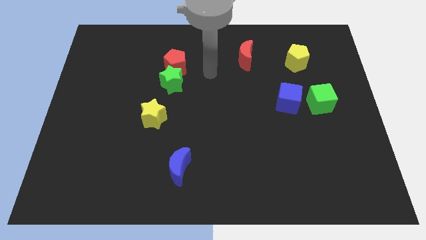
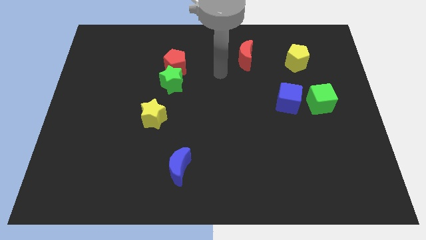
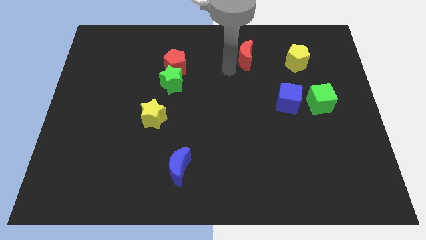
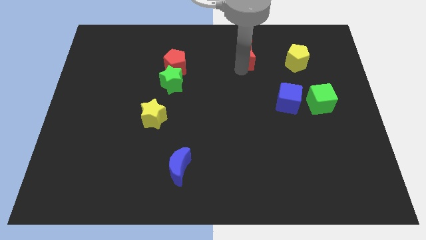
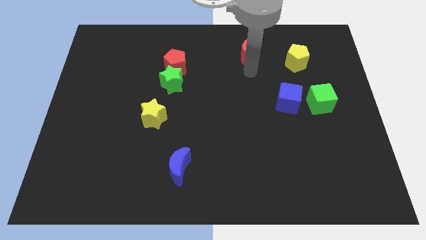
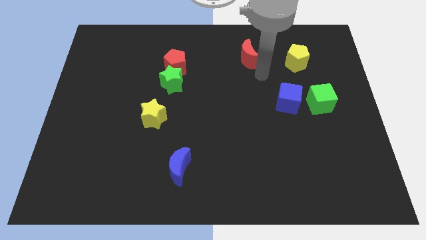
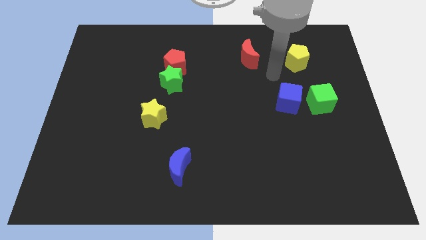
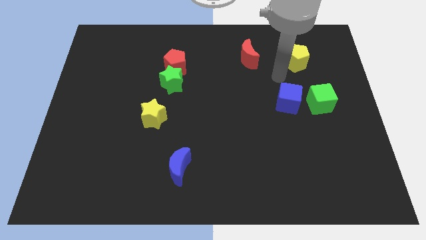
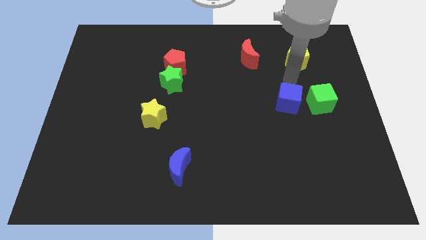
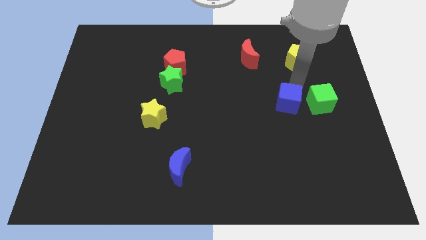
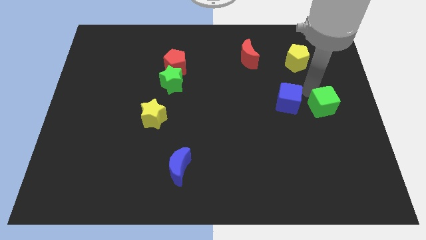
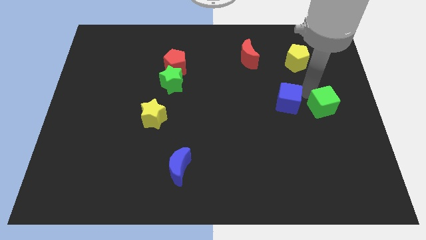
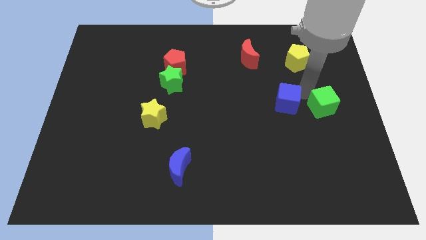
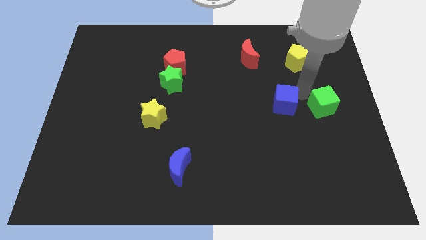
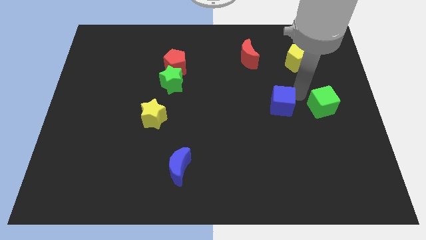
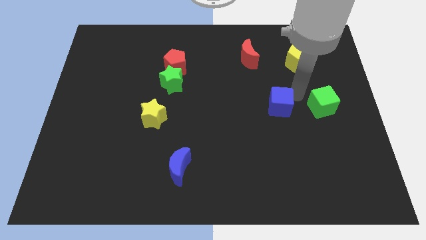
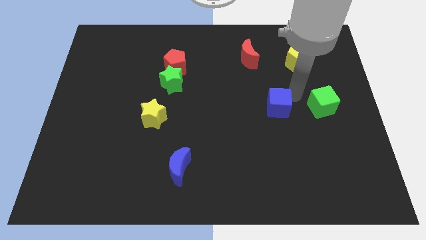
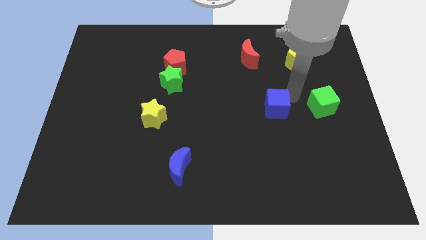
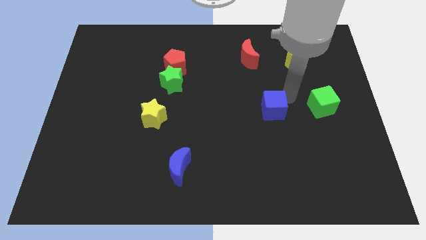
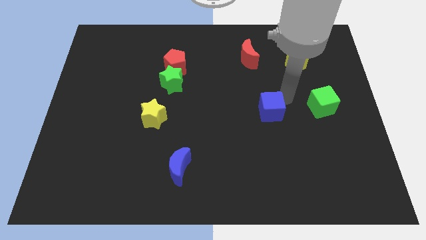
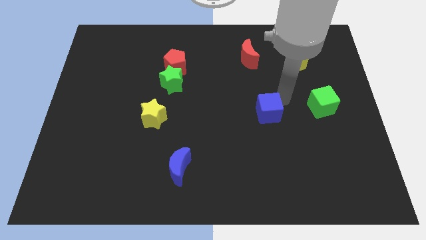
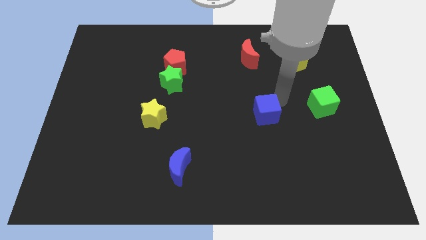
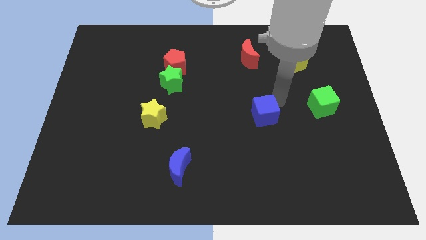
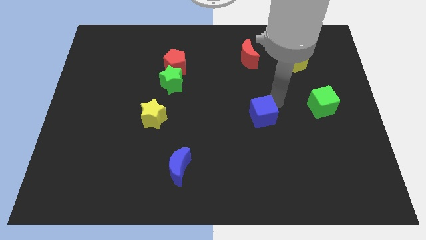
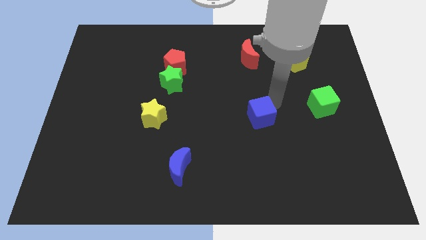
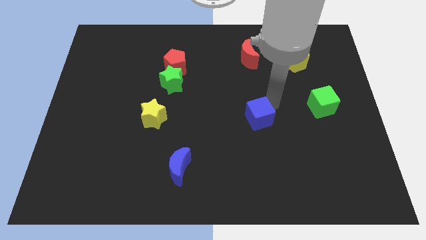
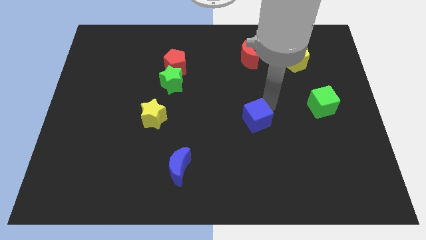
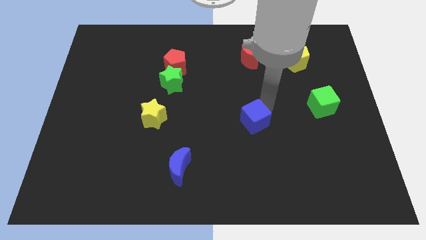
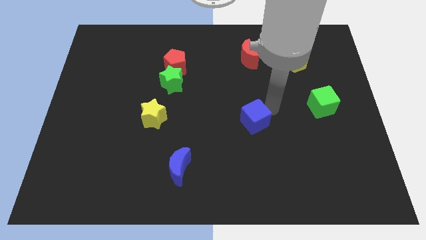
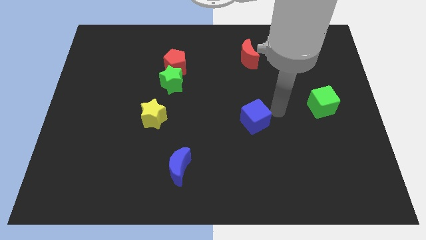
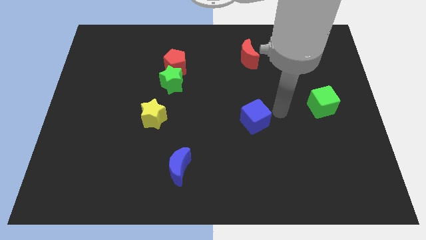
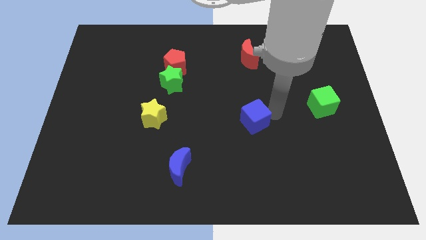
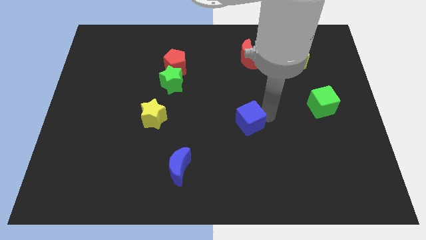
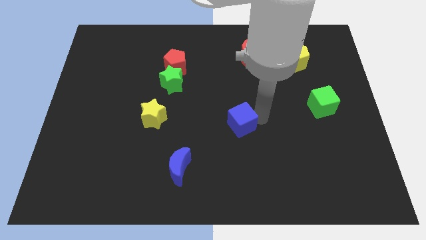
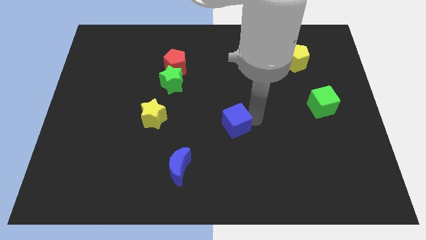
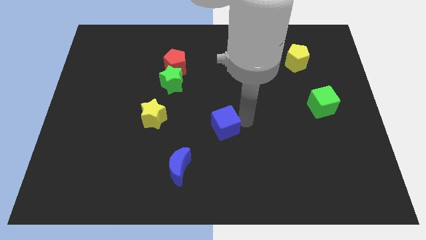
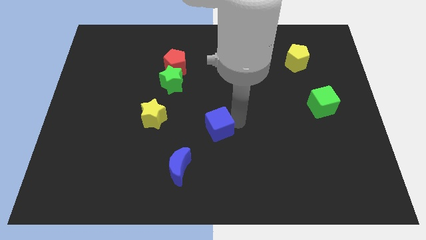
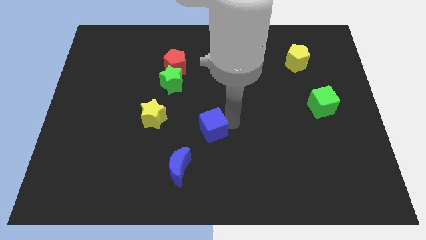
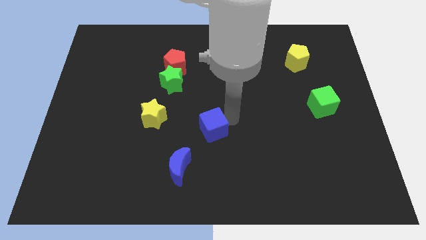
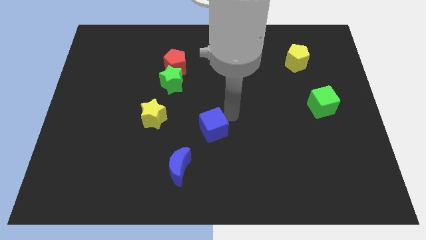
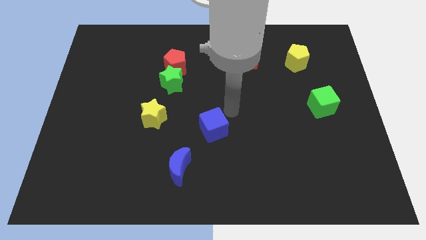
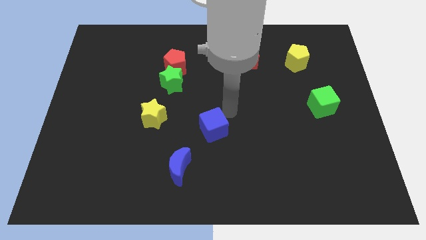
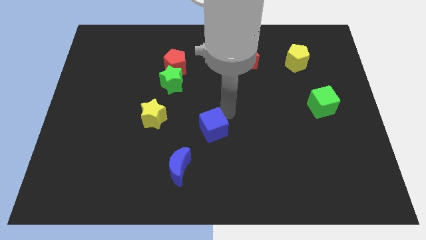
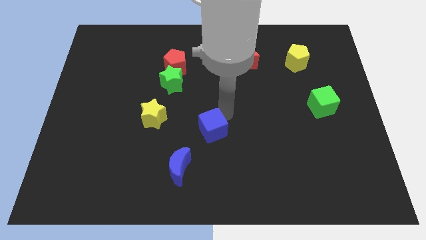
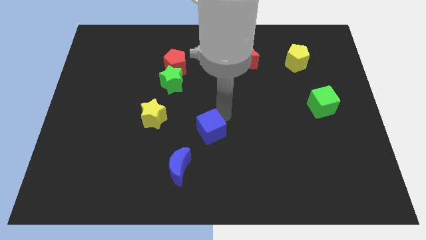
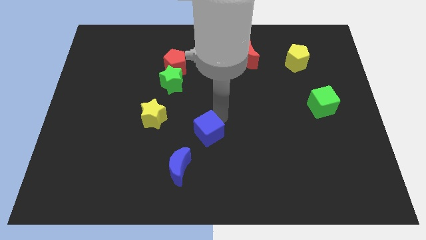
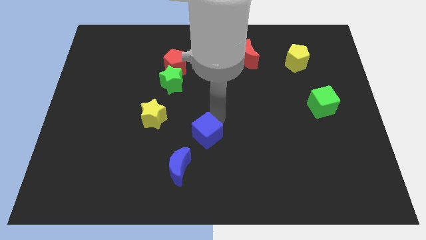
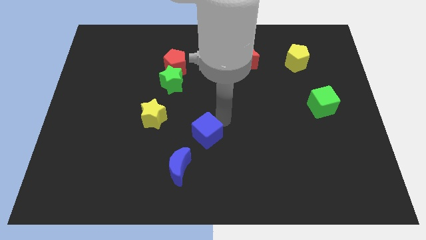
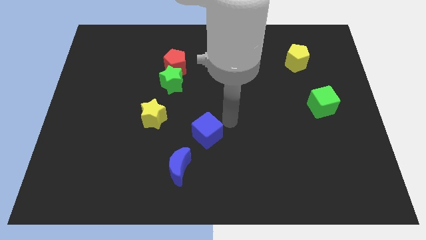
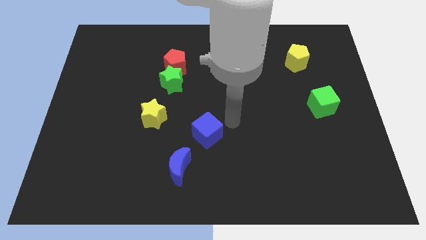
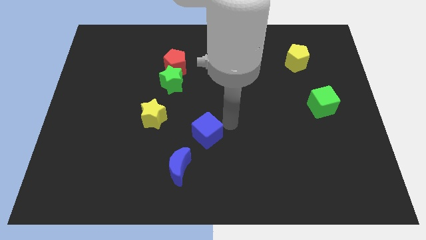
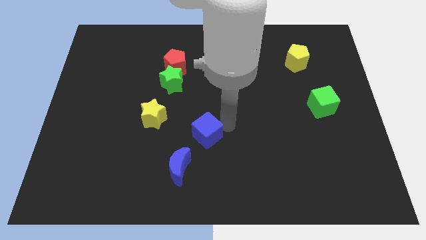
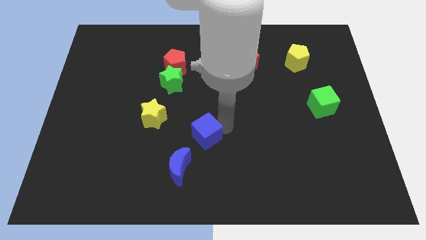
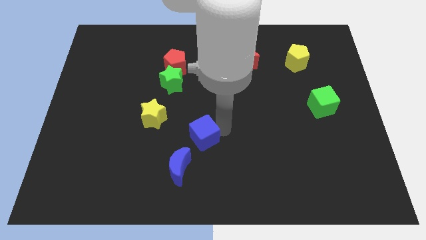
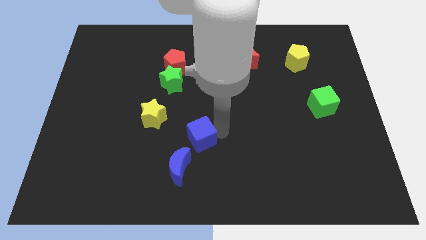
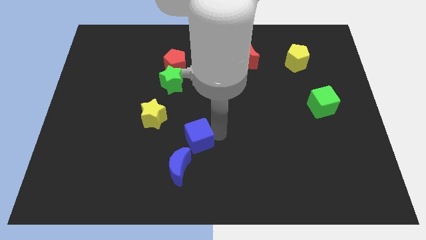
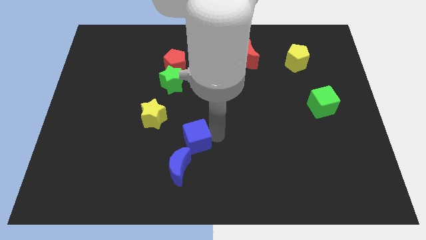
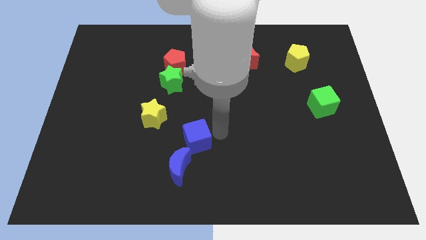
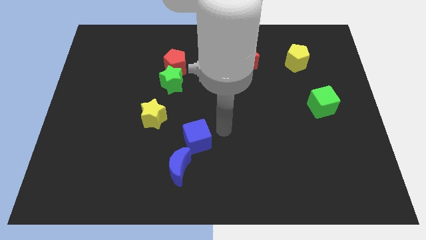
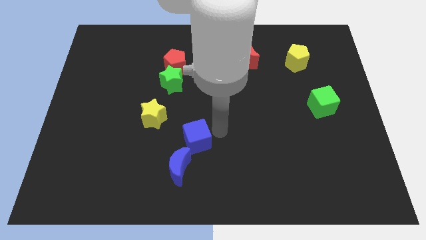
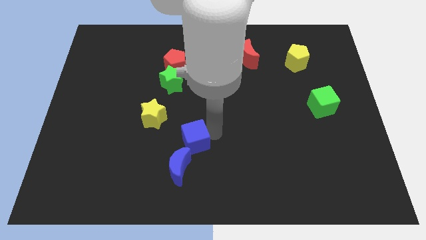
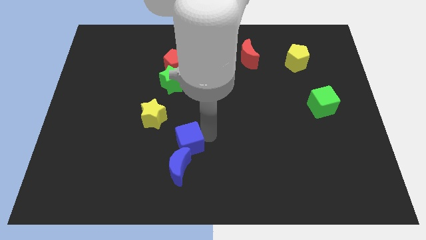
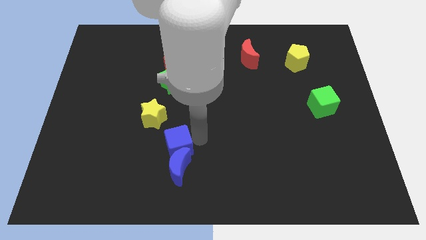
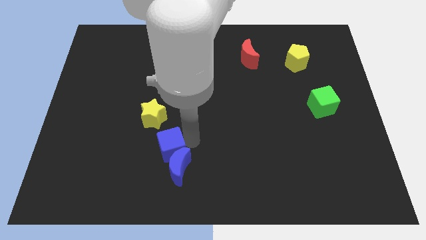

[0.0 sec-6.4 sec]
move the blue cube below the yellow star
